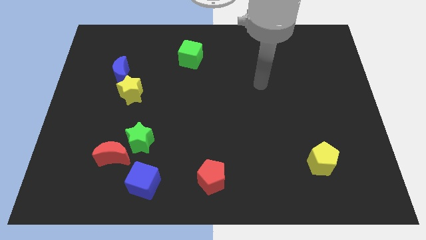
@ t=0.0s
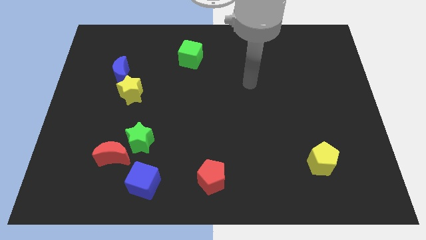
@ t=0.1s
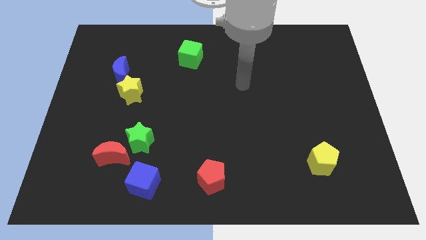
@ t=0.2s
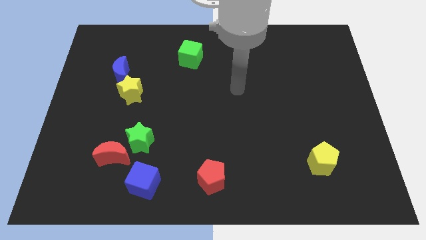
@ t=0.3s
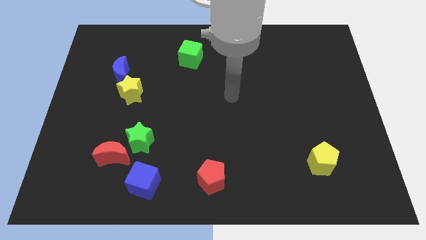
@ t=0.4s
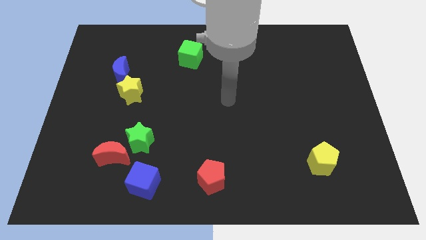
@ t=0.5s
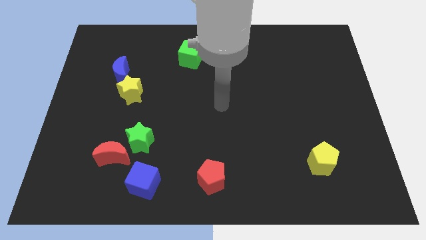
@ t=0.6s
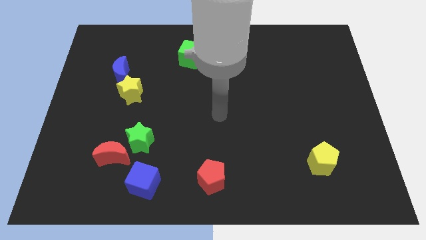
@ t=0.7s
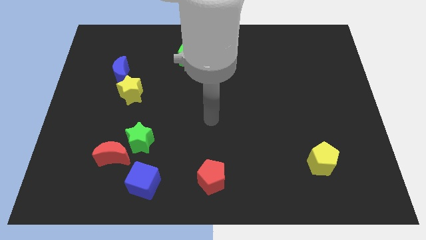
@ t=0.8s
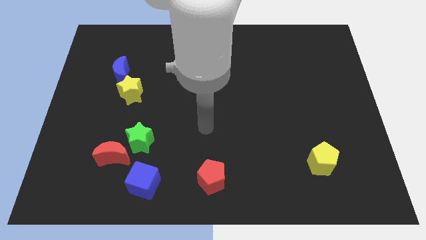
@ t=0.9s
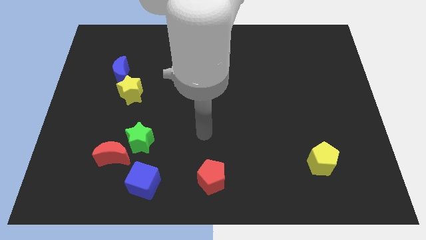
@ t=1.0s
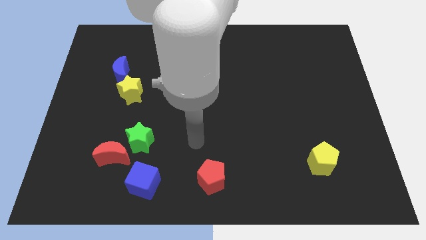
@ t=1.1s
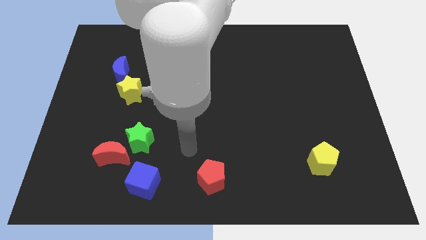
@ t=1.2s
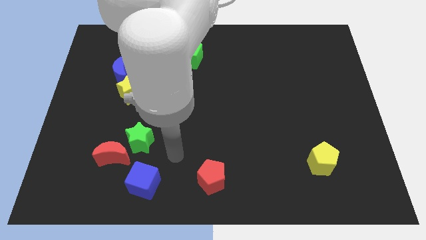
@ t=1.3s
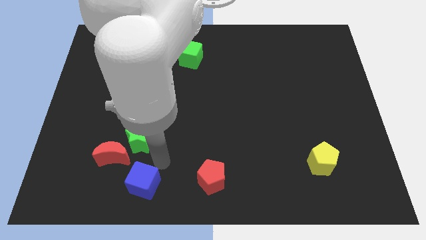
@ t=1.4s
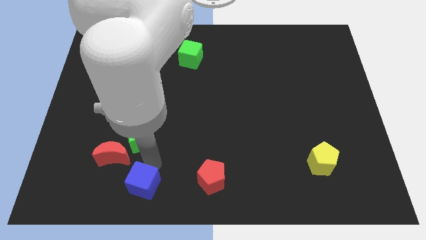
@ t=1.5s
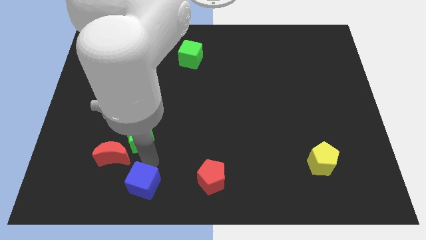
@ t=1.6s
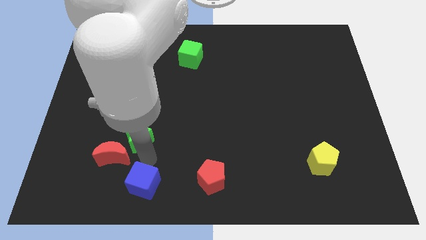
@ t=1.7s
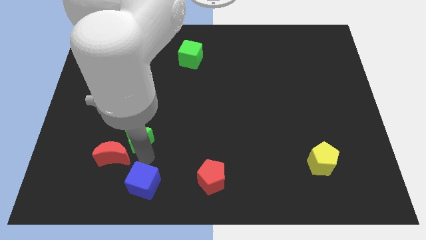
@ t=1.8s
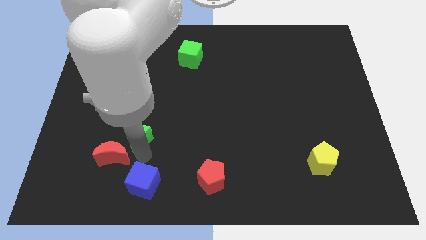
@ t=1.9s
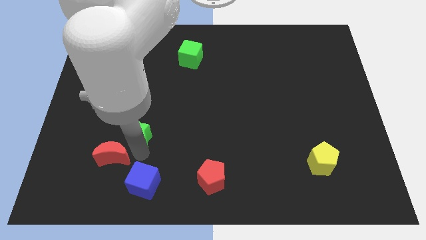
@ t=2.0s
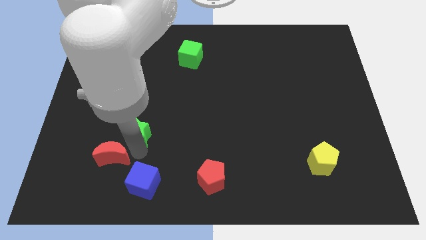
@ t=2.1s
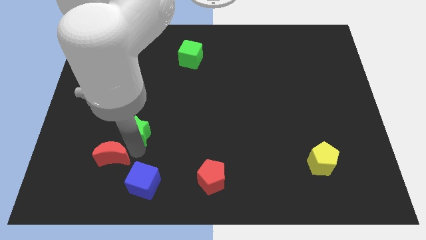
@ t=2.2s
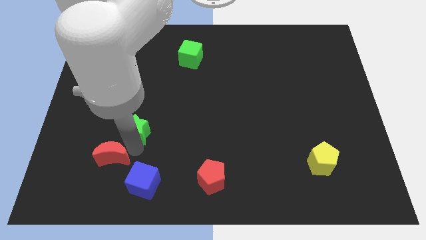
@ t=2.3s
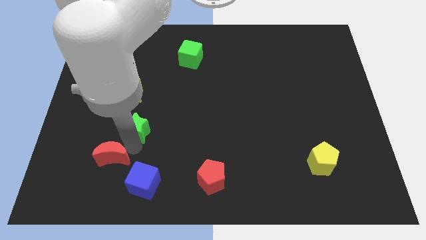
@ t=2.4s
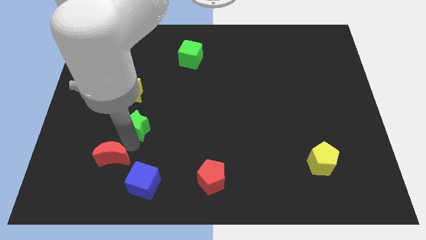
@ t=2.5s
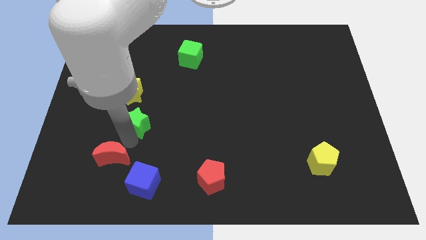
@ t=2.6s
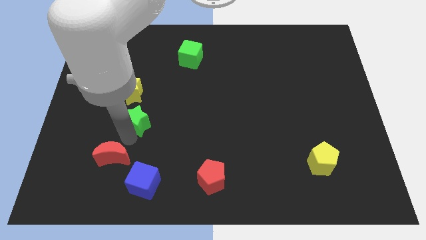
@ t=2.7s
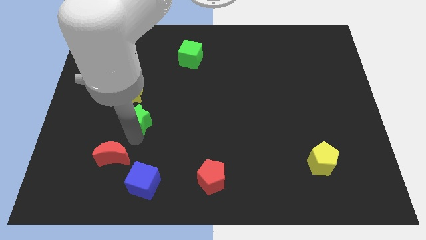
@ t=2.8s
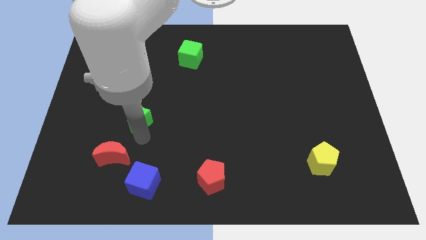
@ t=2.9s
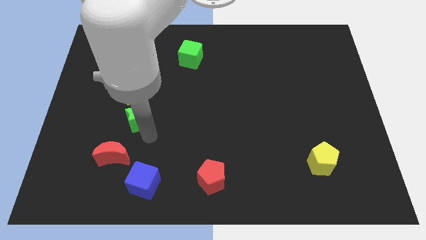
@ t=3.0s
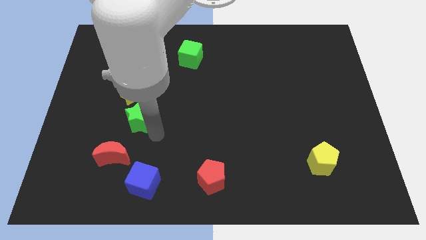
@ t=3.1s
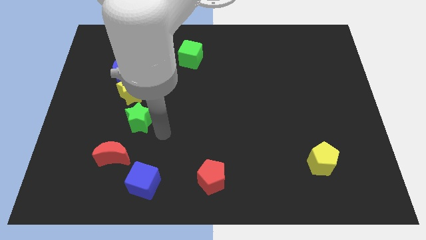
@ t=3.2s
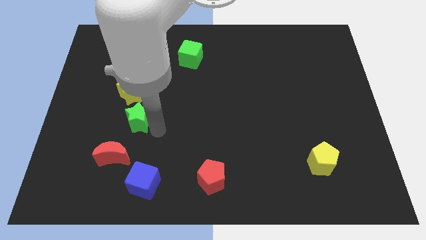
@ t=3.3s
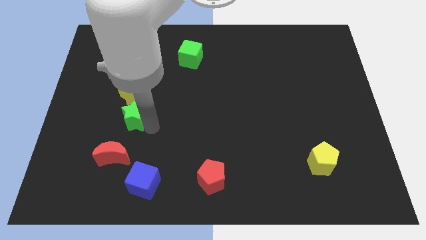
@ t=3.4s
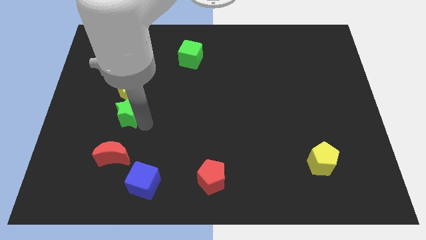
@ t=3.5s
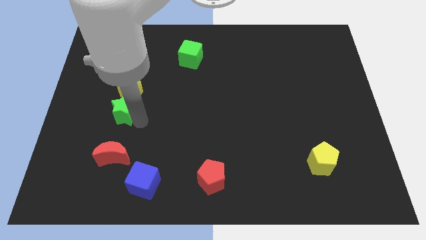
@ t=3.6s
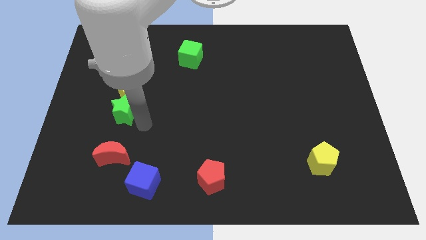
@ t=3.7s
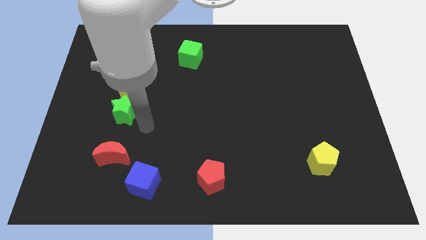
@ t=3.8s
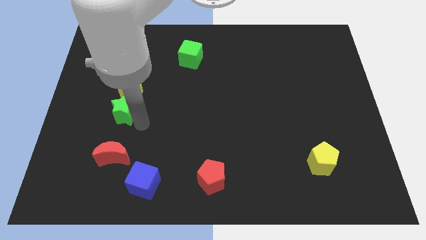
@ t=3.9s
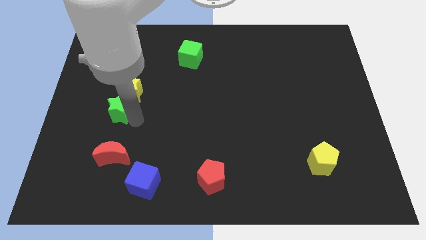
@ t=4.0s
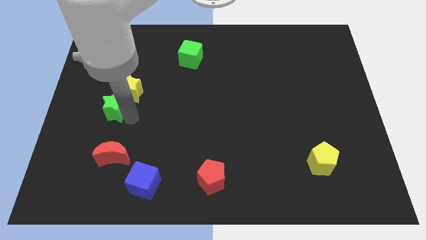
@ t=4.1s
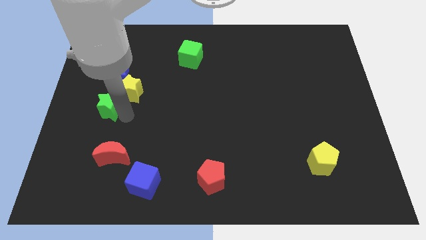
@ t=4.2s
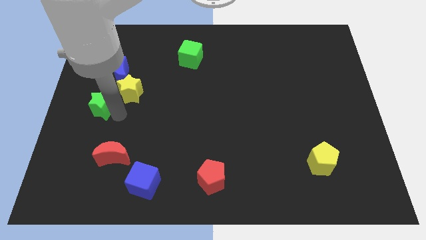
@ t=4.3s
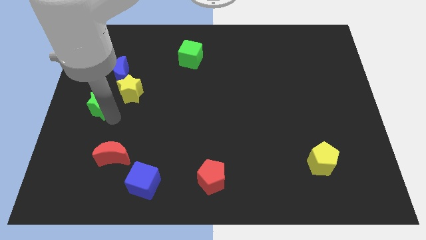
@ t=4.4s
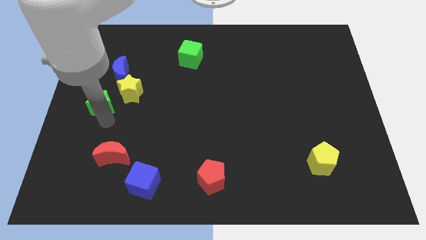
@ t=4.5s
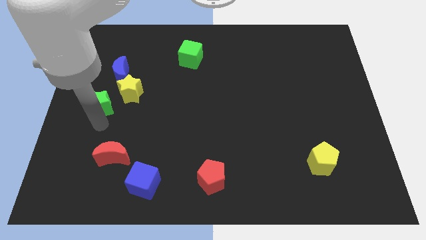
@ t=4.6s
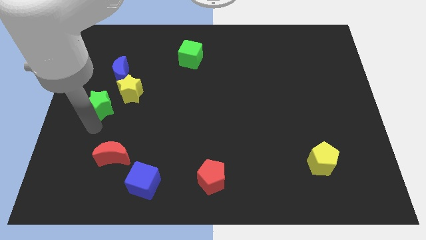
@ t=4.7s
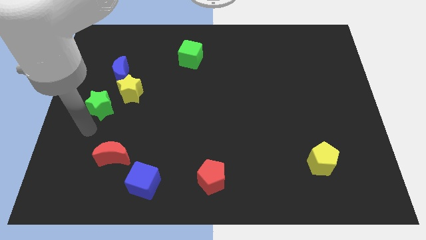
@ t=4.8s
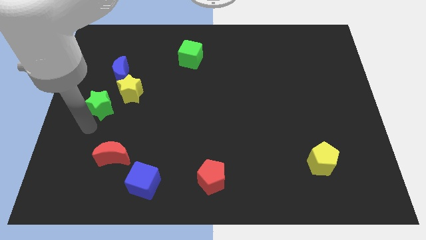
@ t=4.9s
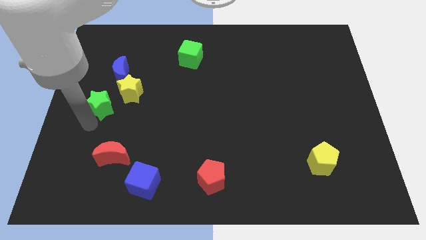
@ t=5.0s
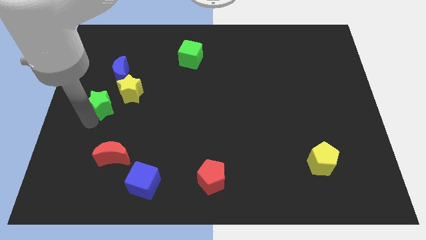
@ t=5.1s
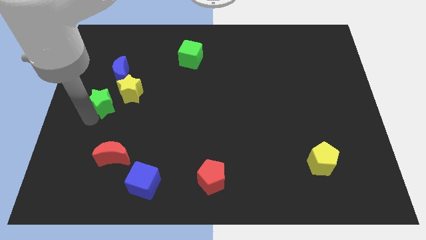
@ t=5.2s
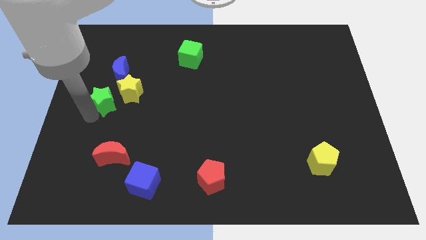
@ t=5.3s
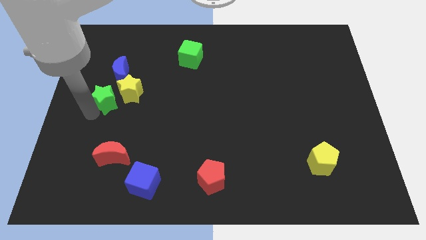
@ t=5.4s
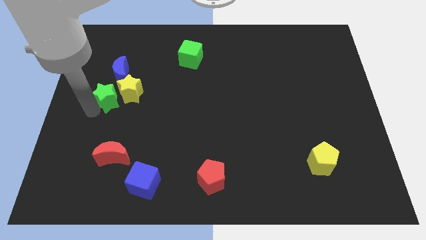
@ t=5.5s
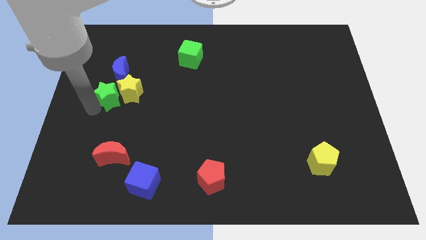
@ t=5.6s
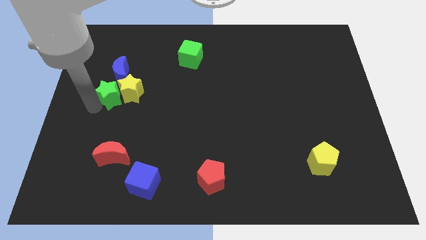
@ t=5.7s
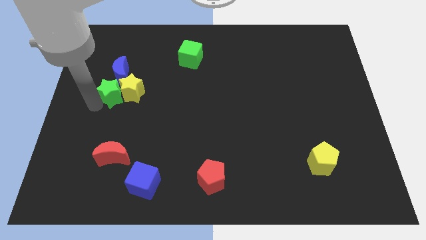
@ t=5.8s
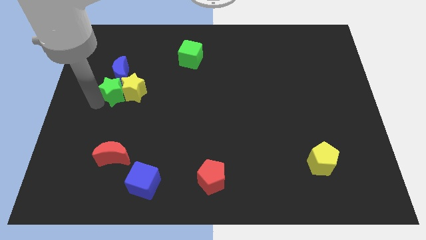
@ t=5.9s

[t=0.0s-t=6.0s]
push the green star next to the blue moon

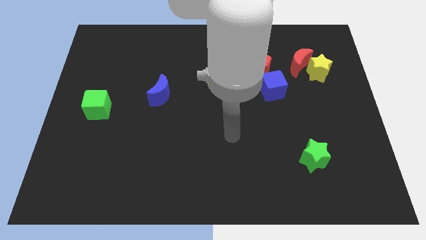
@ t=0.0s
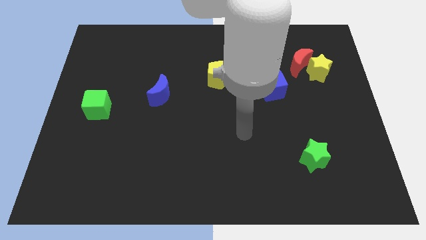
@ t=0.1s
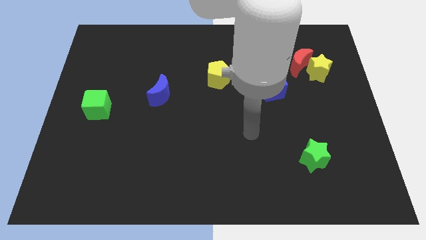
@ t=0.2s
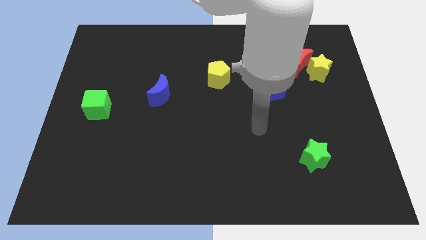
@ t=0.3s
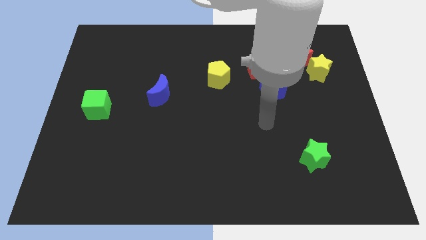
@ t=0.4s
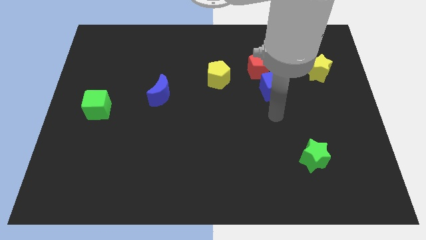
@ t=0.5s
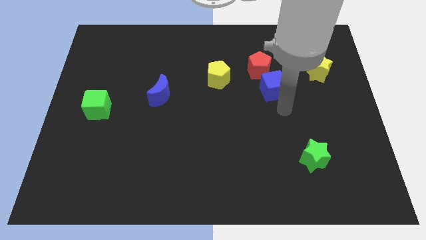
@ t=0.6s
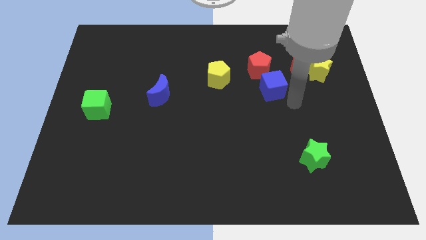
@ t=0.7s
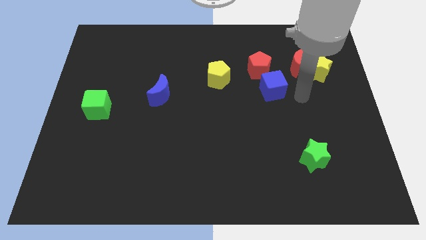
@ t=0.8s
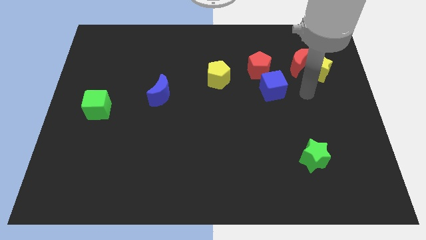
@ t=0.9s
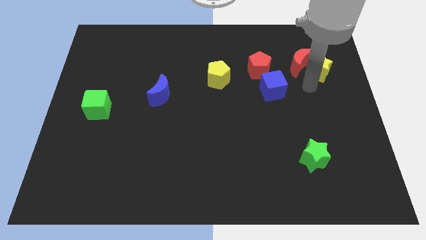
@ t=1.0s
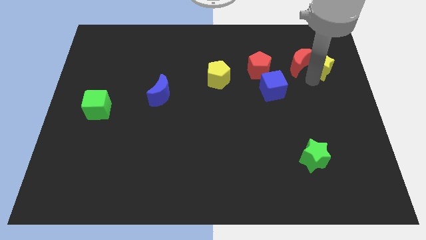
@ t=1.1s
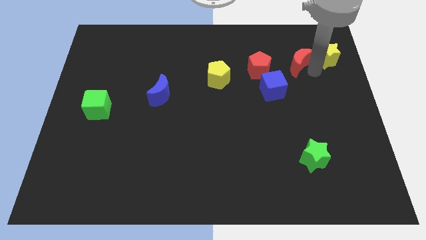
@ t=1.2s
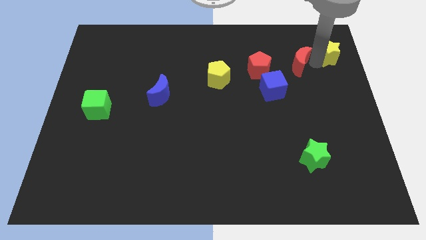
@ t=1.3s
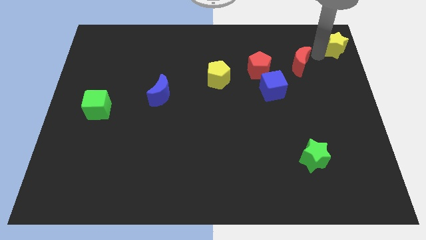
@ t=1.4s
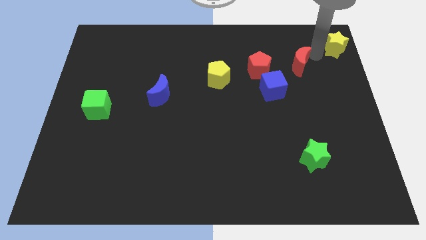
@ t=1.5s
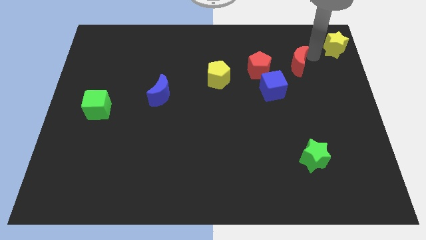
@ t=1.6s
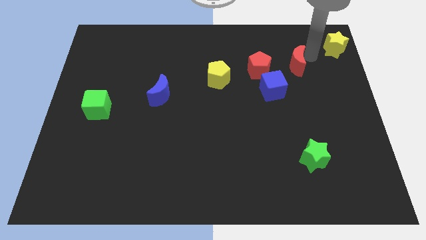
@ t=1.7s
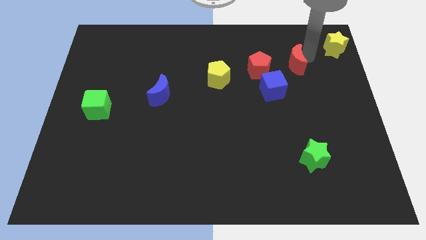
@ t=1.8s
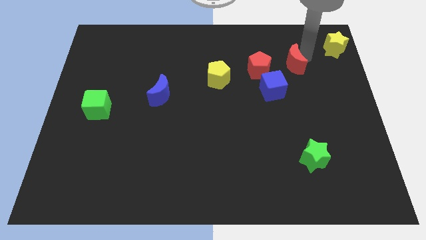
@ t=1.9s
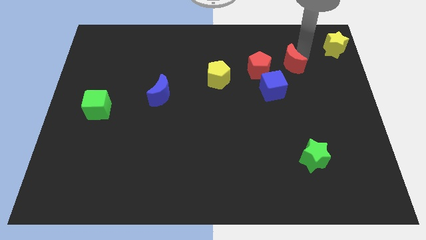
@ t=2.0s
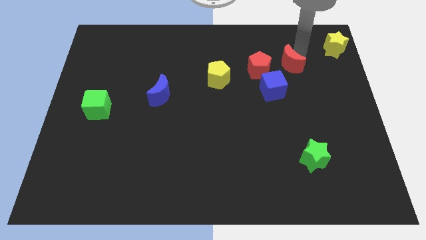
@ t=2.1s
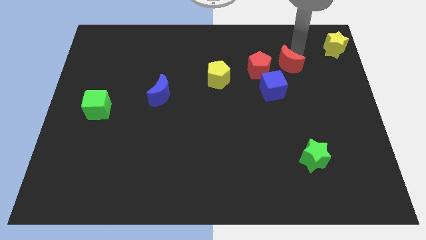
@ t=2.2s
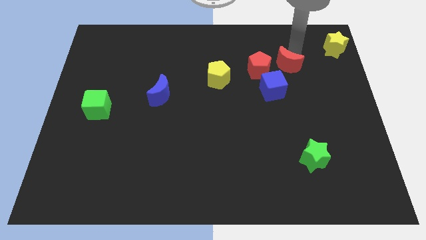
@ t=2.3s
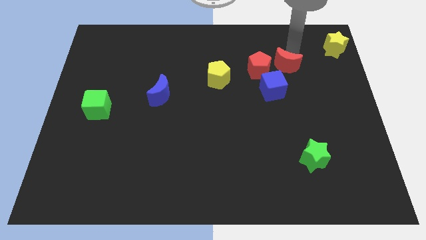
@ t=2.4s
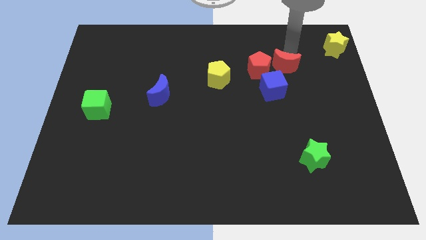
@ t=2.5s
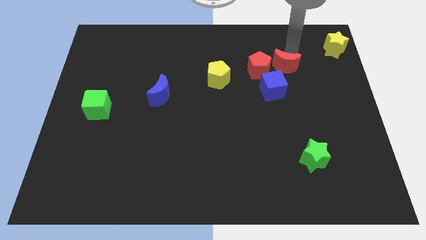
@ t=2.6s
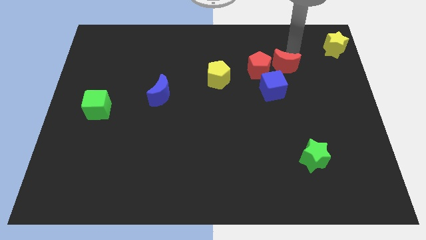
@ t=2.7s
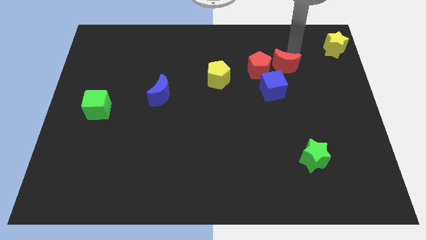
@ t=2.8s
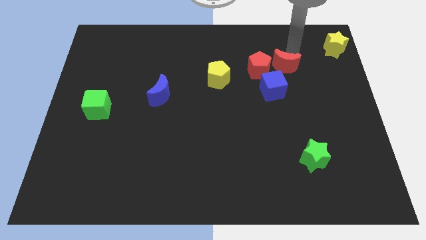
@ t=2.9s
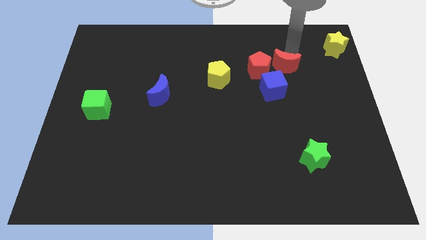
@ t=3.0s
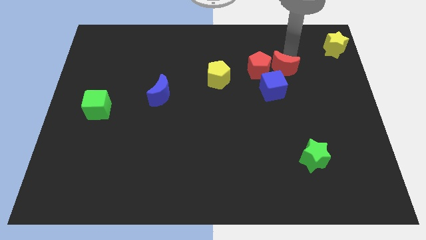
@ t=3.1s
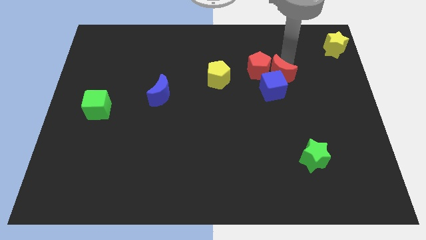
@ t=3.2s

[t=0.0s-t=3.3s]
move the red moon next to the blue cube
